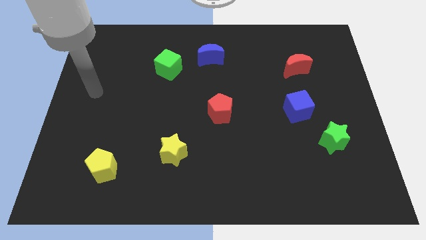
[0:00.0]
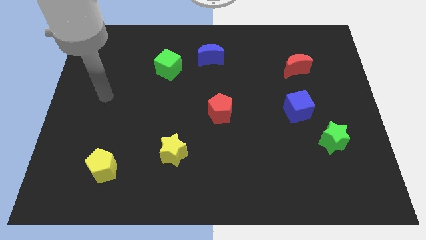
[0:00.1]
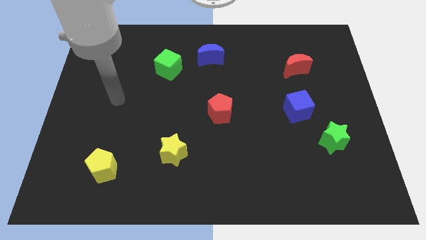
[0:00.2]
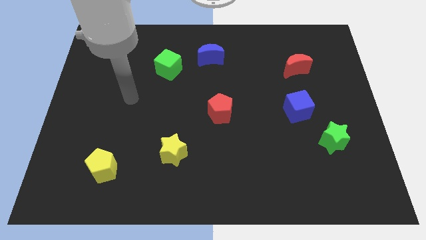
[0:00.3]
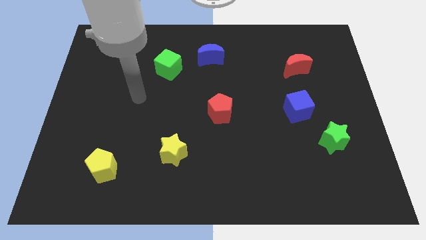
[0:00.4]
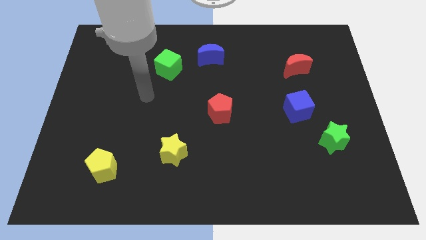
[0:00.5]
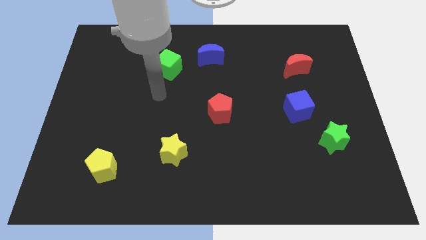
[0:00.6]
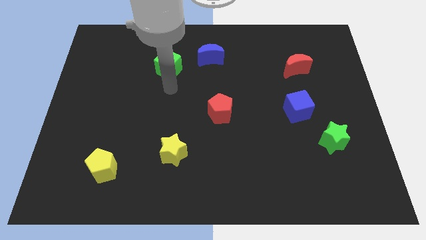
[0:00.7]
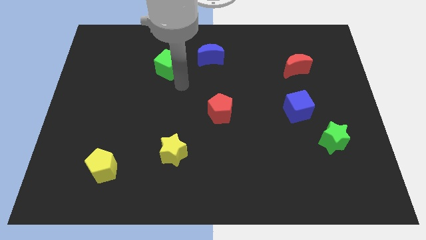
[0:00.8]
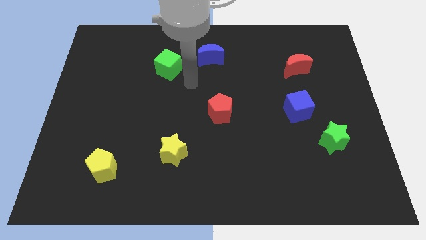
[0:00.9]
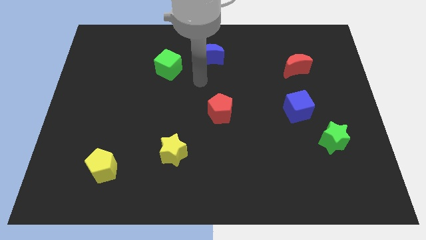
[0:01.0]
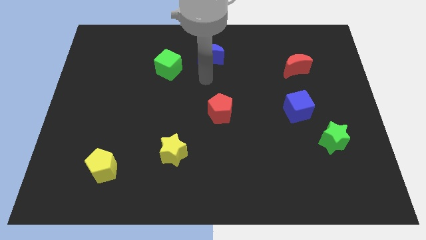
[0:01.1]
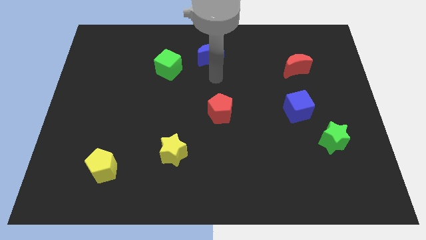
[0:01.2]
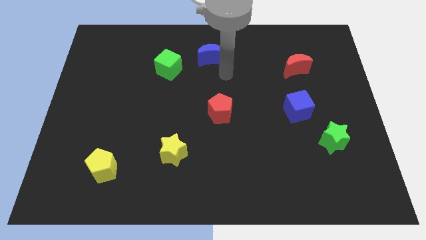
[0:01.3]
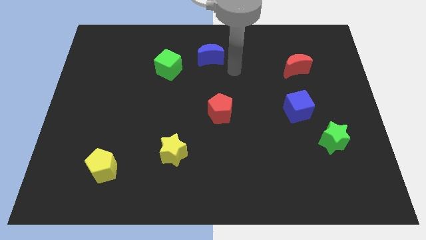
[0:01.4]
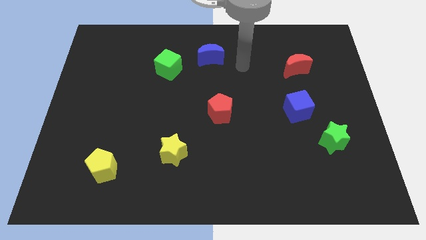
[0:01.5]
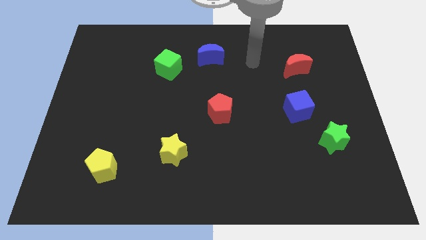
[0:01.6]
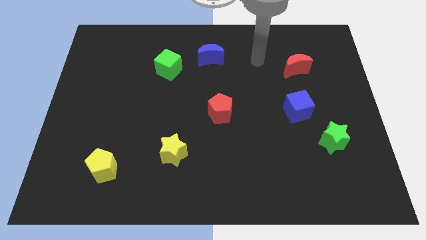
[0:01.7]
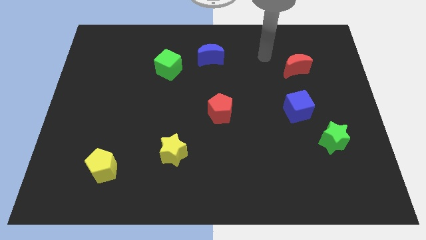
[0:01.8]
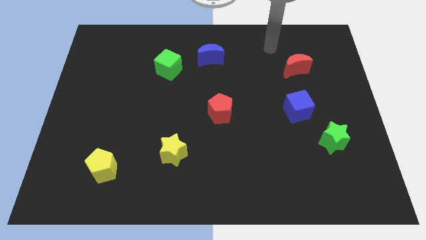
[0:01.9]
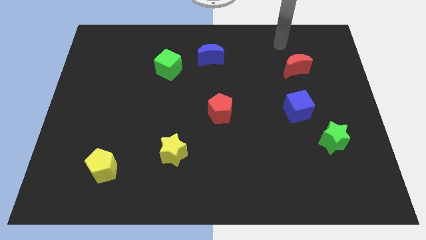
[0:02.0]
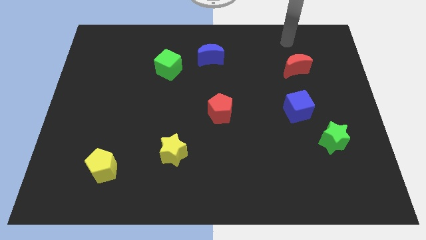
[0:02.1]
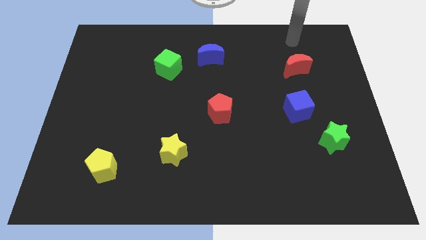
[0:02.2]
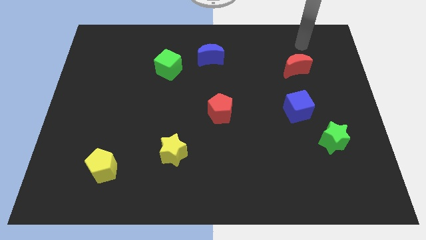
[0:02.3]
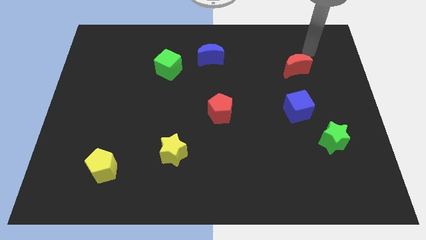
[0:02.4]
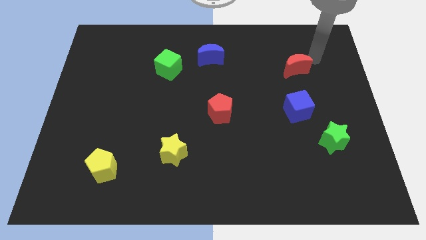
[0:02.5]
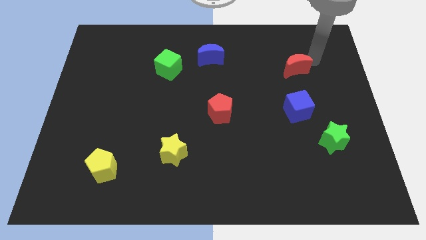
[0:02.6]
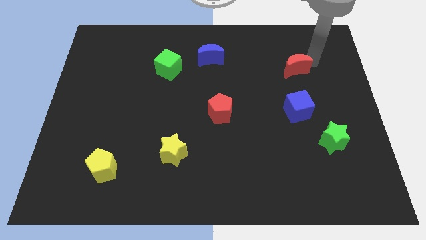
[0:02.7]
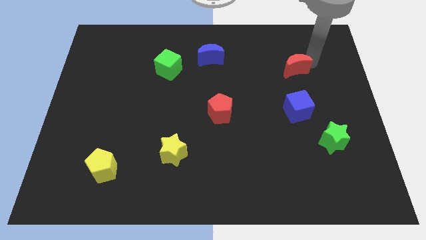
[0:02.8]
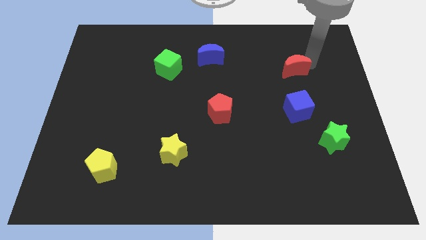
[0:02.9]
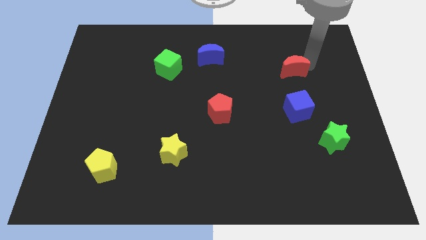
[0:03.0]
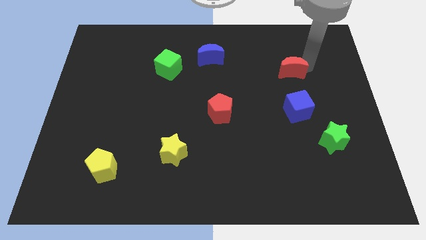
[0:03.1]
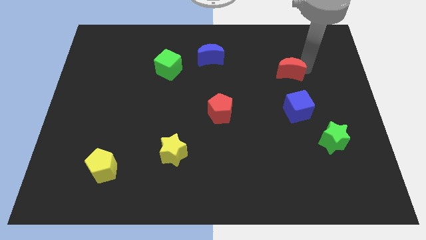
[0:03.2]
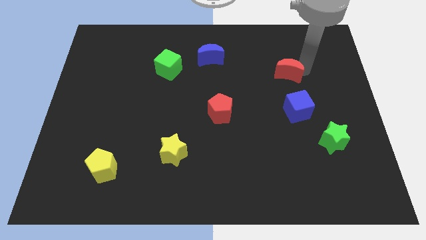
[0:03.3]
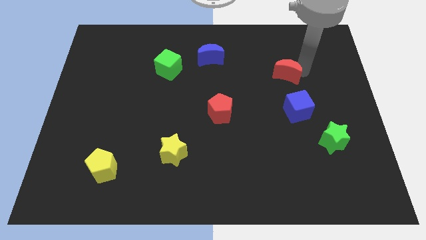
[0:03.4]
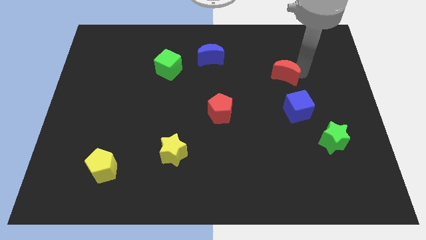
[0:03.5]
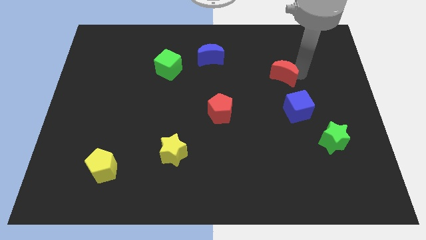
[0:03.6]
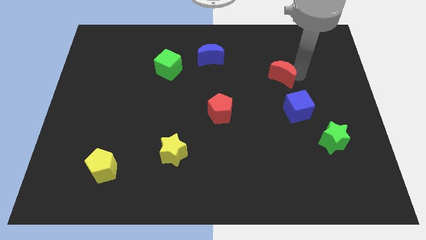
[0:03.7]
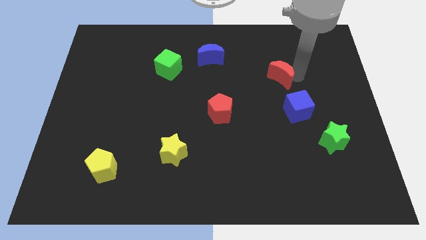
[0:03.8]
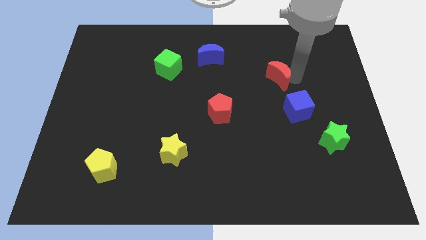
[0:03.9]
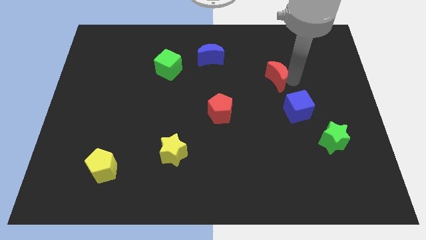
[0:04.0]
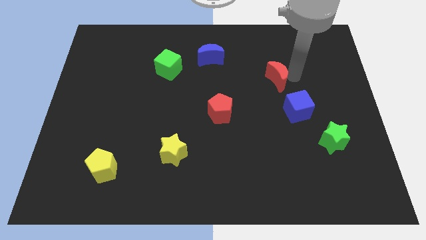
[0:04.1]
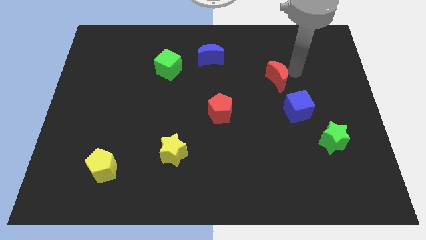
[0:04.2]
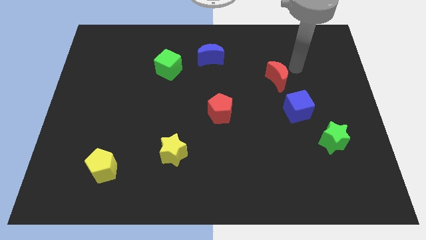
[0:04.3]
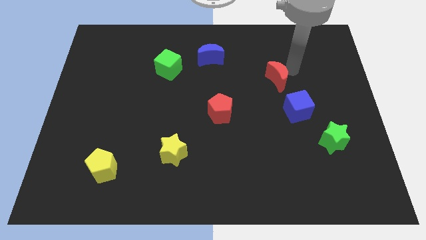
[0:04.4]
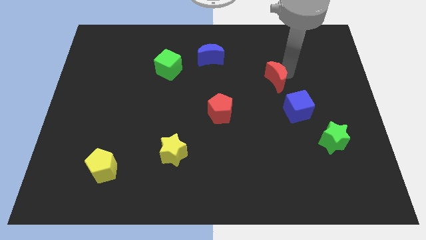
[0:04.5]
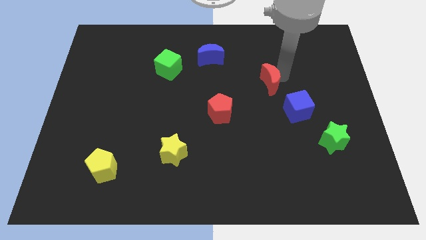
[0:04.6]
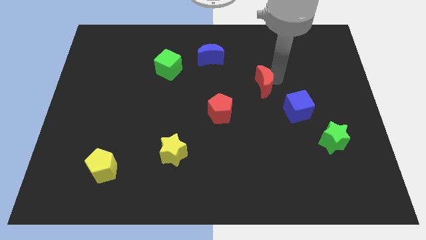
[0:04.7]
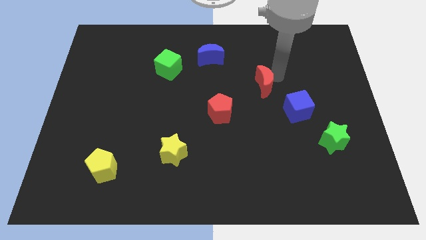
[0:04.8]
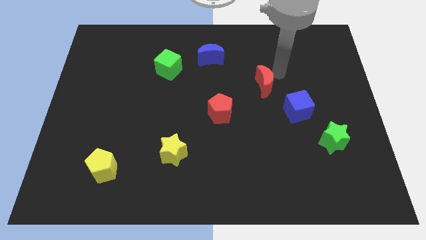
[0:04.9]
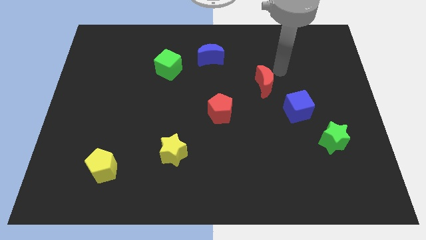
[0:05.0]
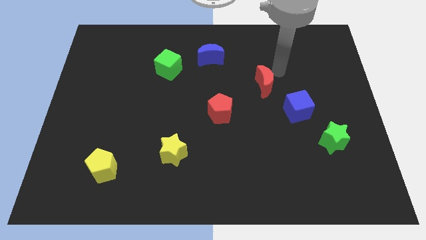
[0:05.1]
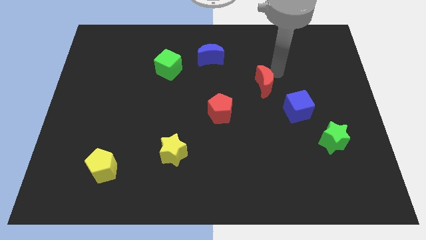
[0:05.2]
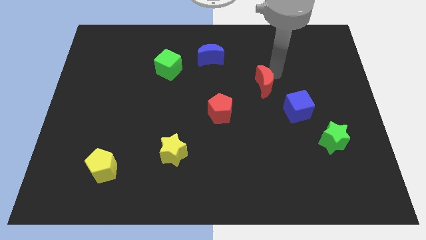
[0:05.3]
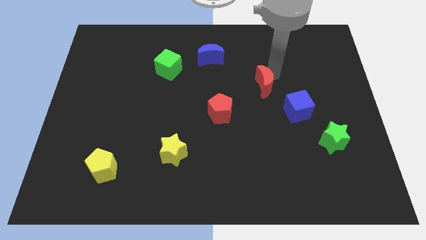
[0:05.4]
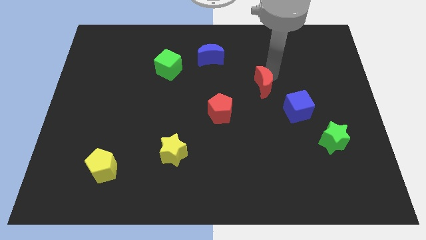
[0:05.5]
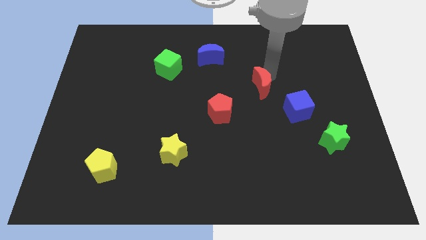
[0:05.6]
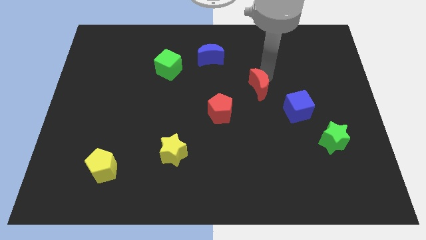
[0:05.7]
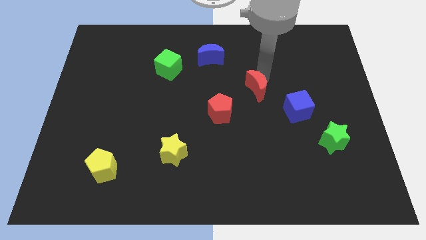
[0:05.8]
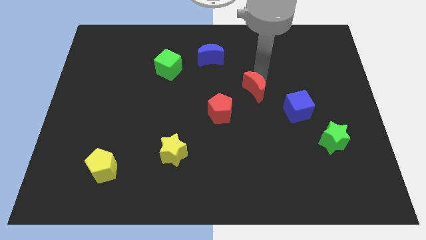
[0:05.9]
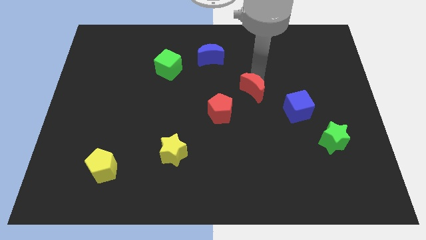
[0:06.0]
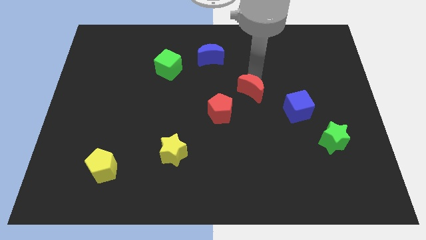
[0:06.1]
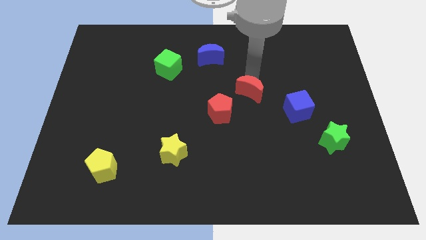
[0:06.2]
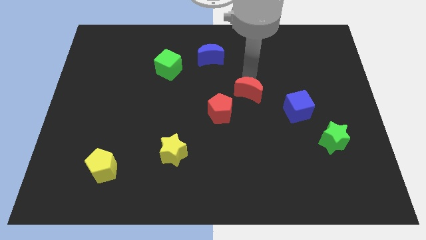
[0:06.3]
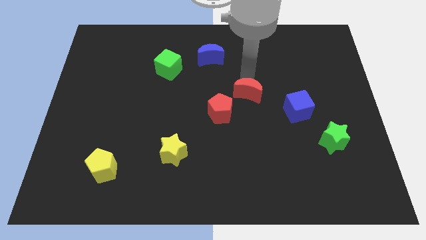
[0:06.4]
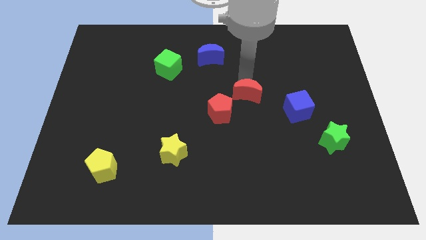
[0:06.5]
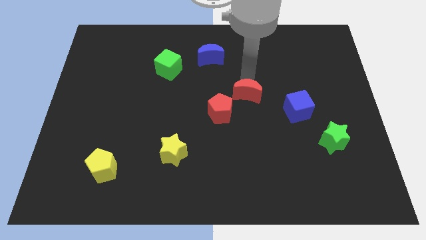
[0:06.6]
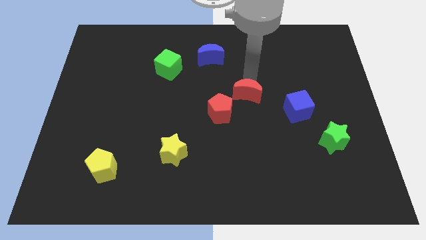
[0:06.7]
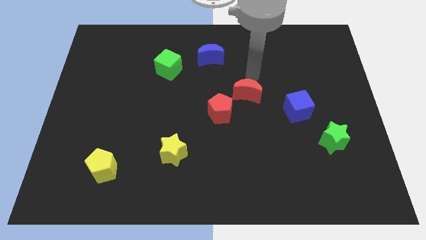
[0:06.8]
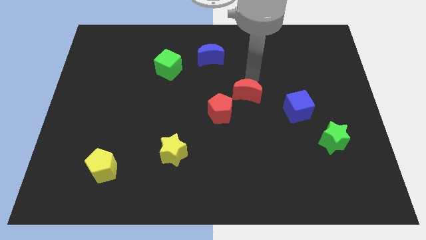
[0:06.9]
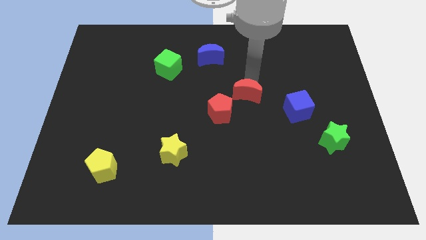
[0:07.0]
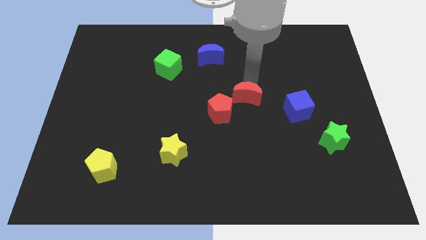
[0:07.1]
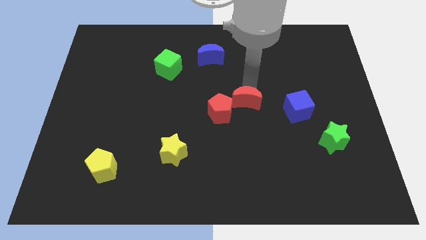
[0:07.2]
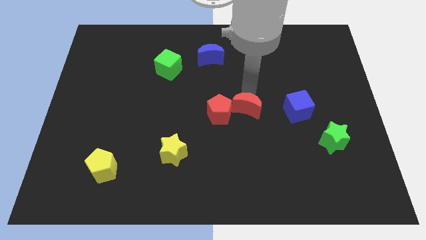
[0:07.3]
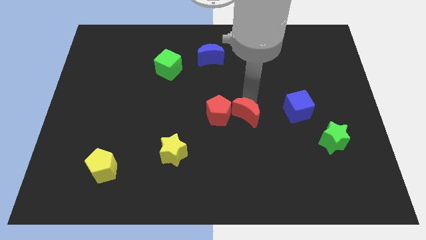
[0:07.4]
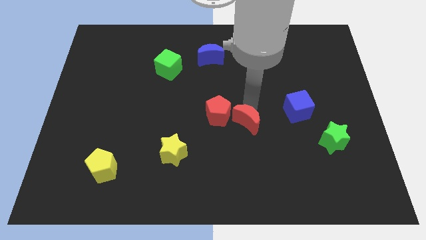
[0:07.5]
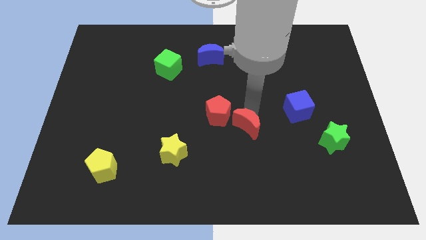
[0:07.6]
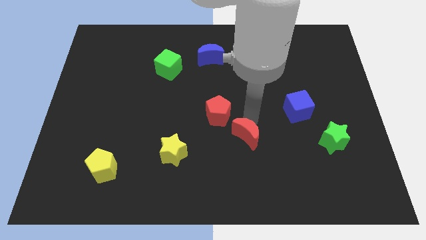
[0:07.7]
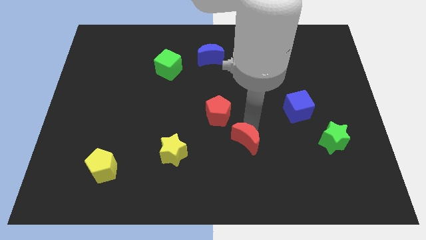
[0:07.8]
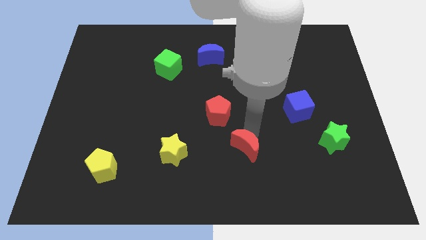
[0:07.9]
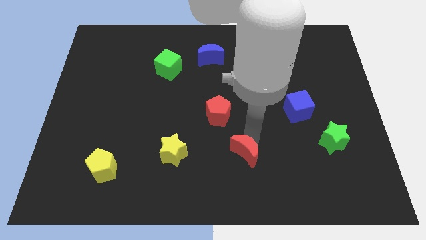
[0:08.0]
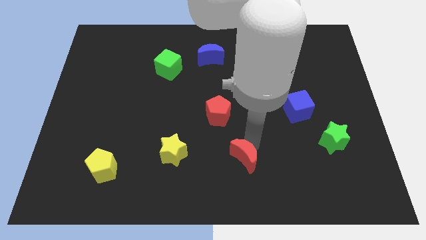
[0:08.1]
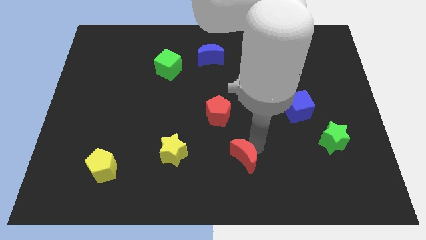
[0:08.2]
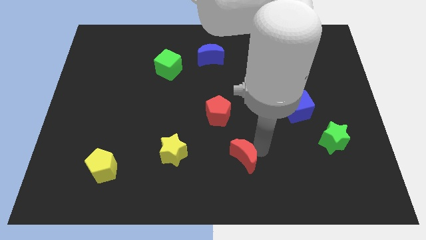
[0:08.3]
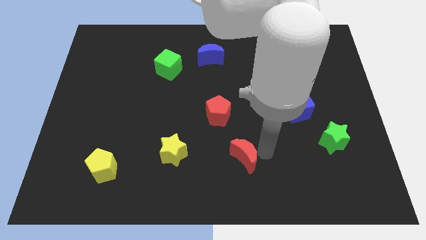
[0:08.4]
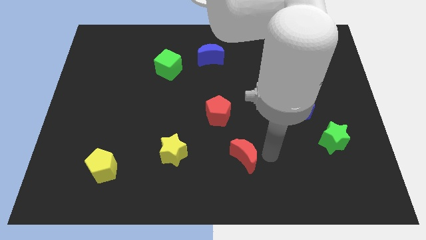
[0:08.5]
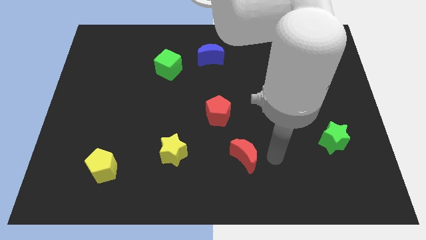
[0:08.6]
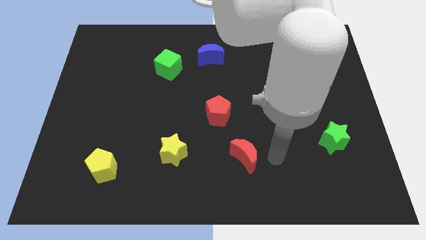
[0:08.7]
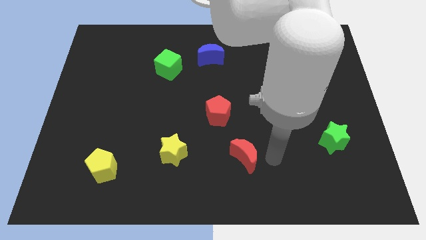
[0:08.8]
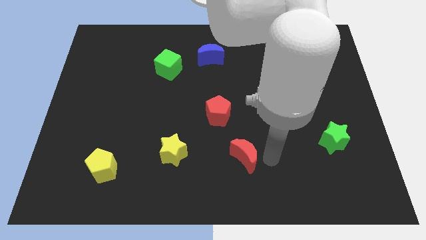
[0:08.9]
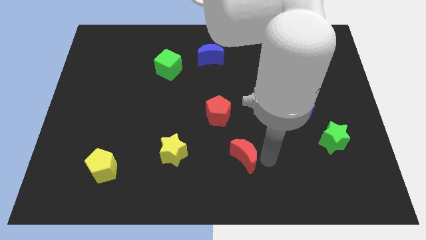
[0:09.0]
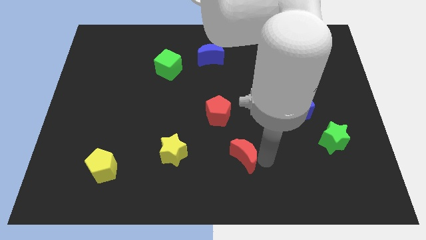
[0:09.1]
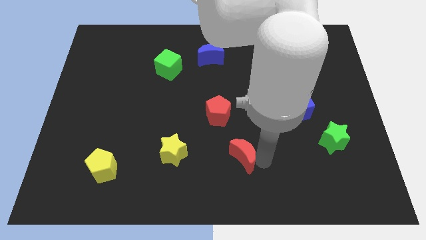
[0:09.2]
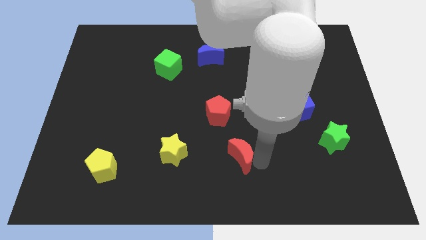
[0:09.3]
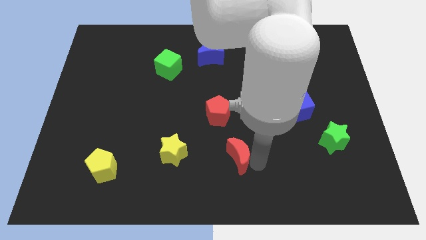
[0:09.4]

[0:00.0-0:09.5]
push the red moon to the bottom
